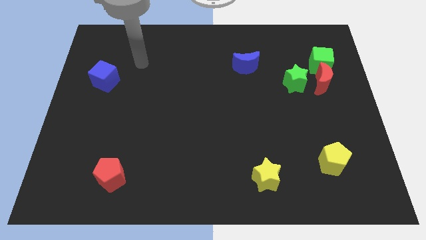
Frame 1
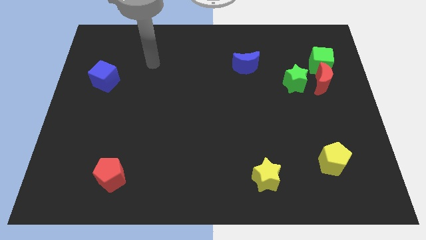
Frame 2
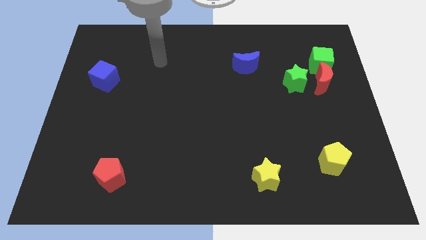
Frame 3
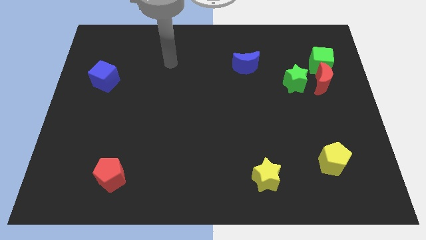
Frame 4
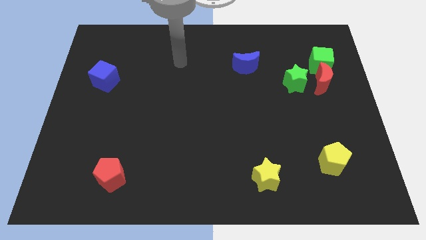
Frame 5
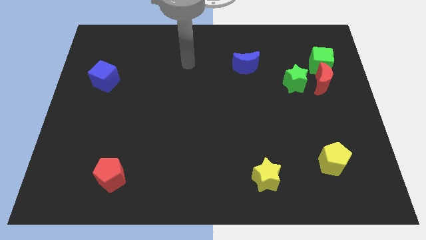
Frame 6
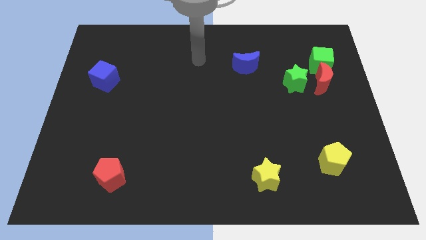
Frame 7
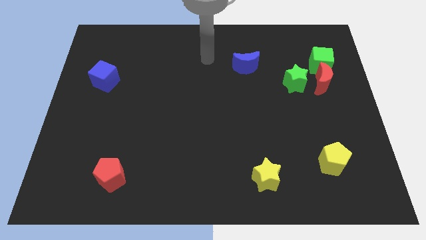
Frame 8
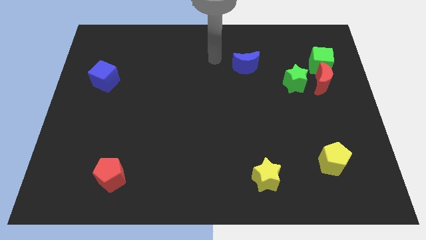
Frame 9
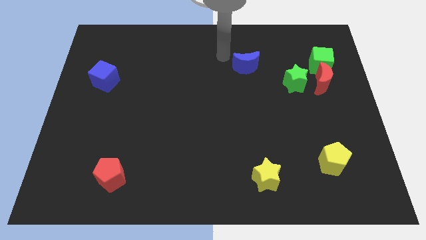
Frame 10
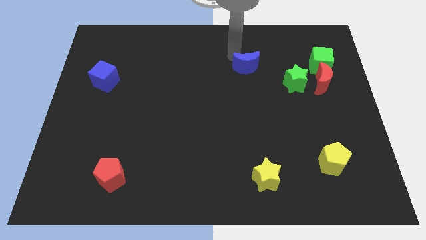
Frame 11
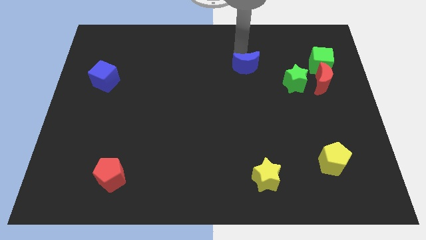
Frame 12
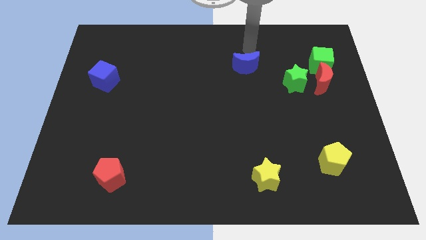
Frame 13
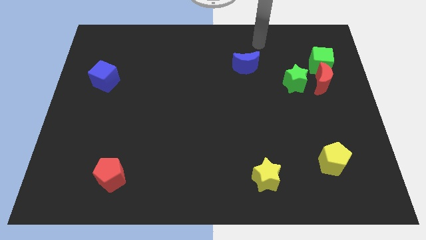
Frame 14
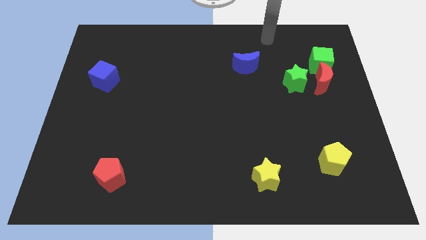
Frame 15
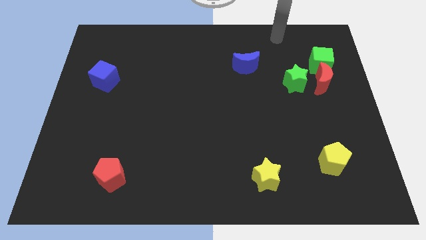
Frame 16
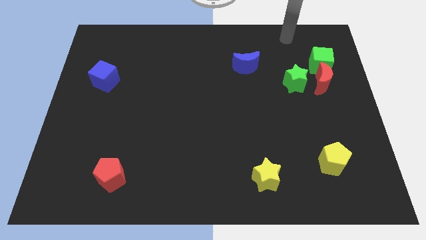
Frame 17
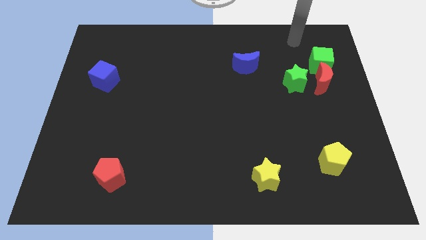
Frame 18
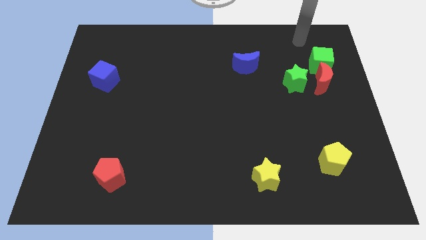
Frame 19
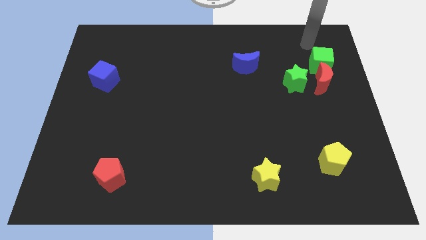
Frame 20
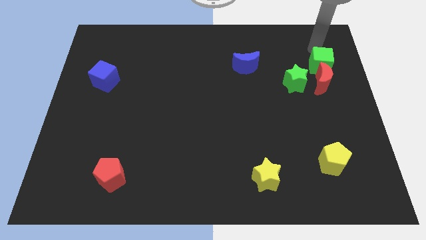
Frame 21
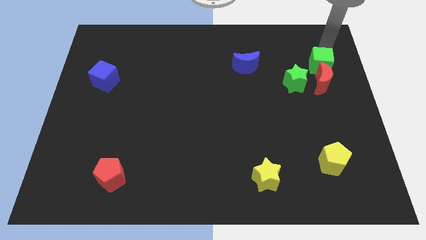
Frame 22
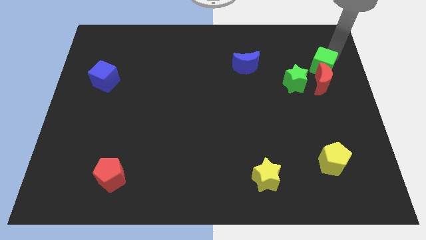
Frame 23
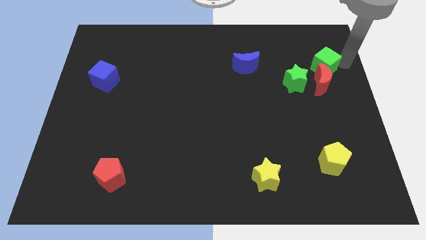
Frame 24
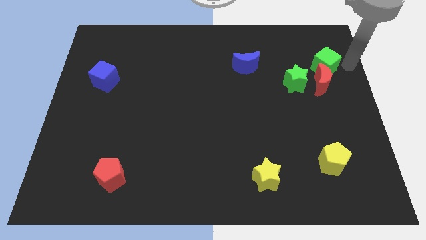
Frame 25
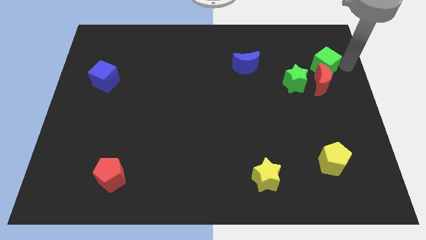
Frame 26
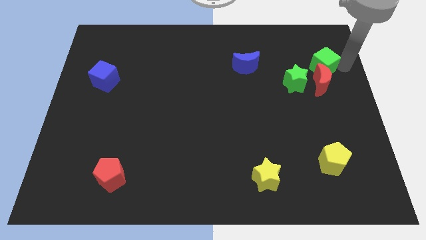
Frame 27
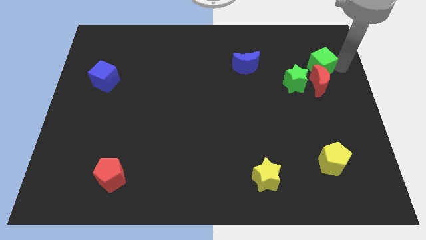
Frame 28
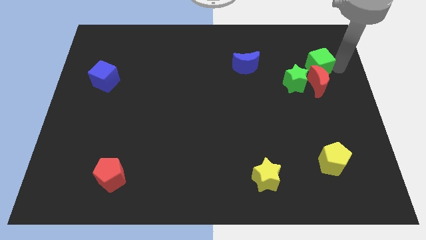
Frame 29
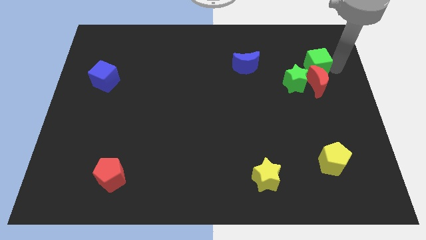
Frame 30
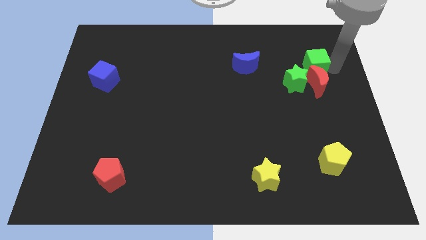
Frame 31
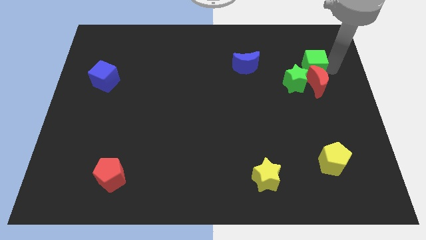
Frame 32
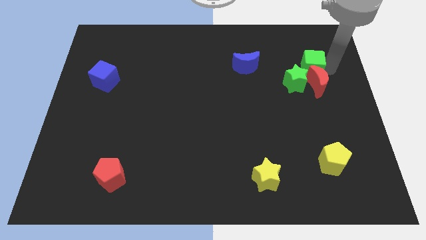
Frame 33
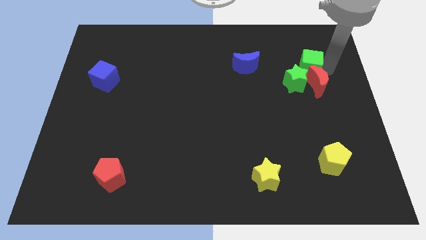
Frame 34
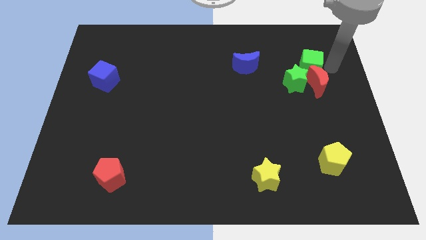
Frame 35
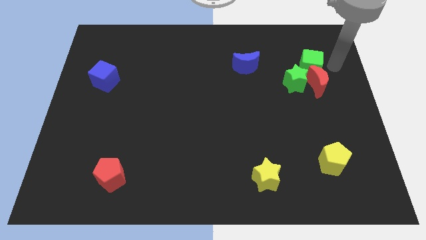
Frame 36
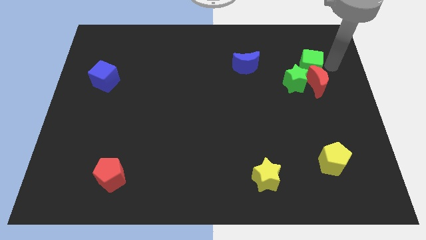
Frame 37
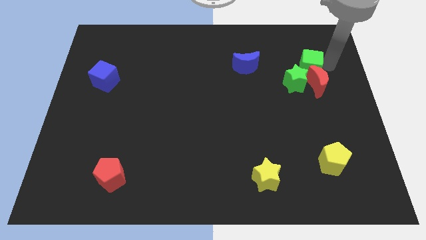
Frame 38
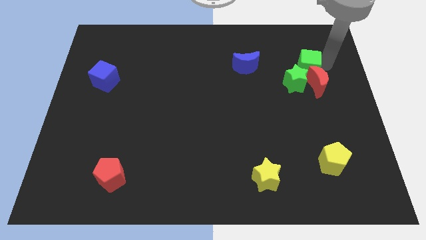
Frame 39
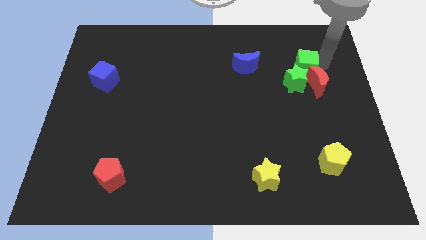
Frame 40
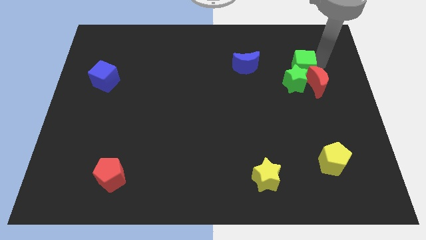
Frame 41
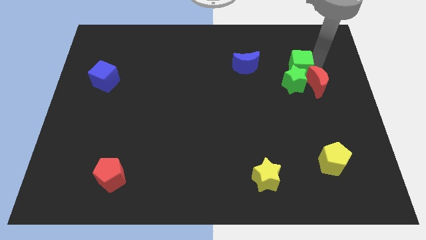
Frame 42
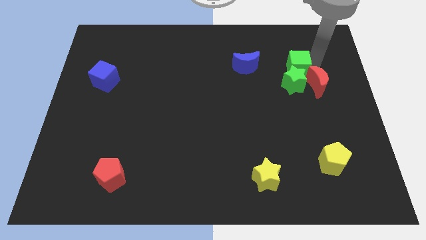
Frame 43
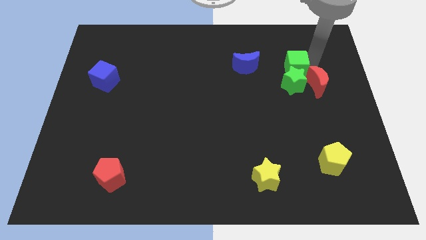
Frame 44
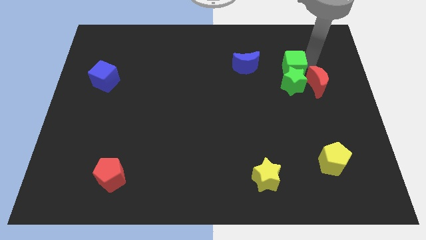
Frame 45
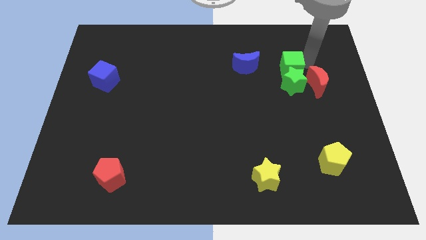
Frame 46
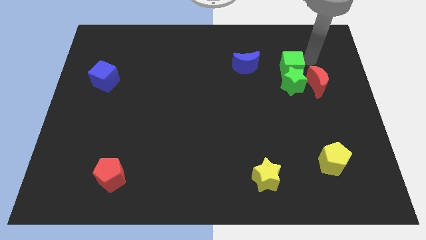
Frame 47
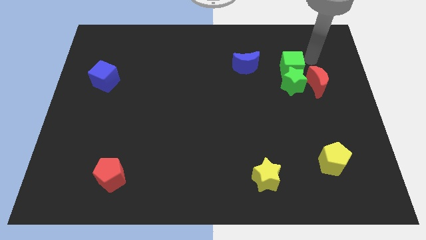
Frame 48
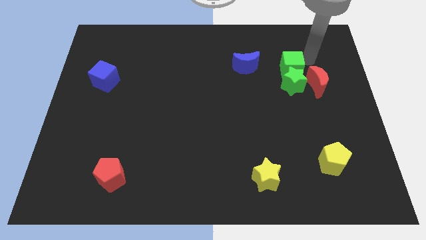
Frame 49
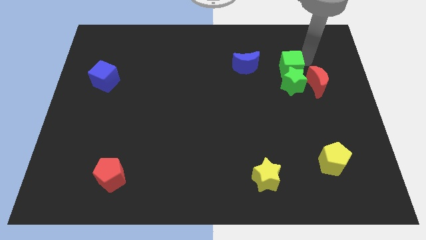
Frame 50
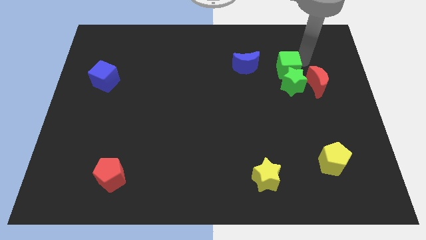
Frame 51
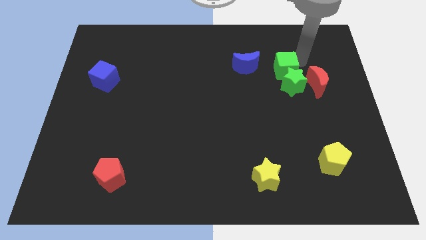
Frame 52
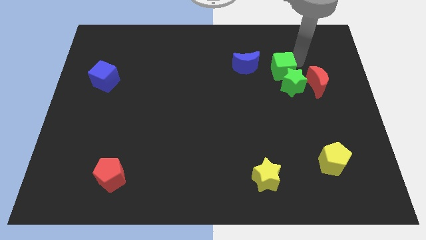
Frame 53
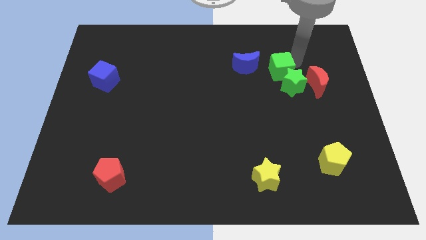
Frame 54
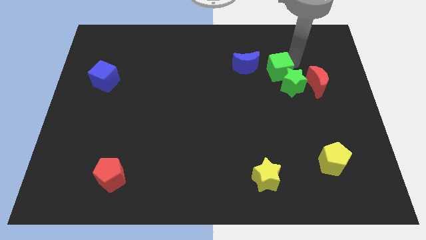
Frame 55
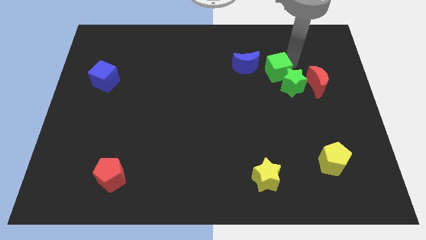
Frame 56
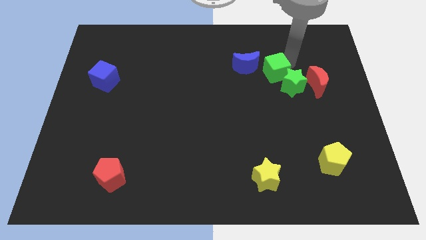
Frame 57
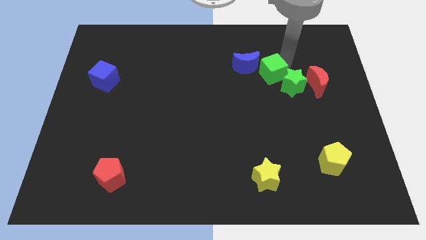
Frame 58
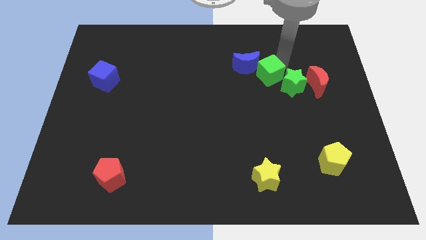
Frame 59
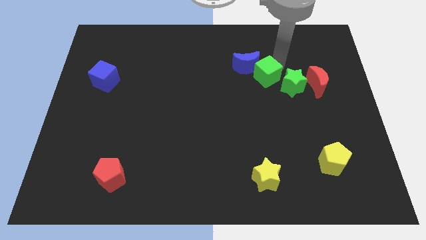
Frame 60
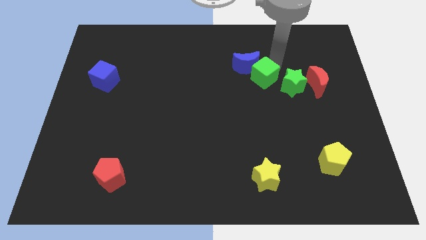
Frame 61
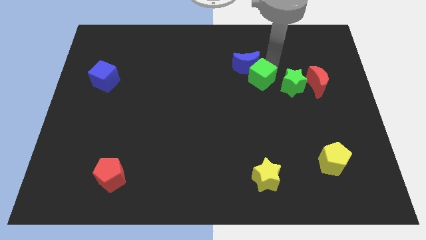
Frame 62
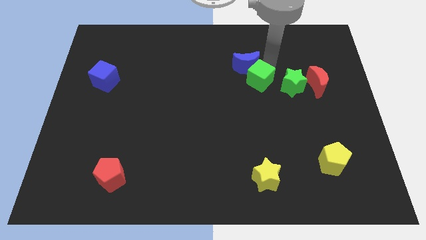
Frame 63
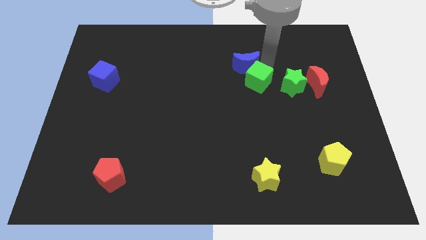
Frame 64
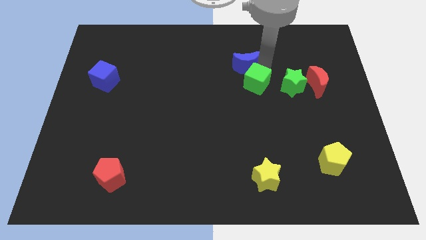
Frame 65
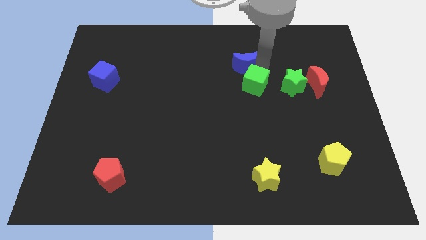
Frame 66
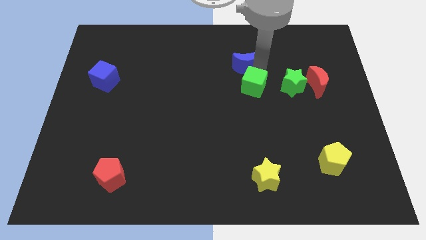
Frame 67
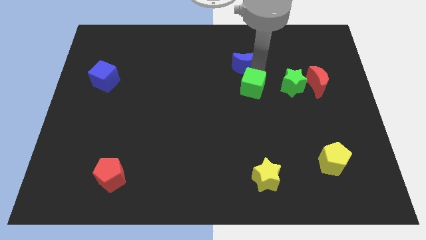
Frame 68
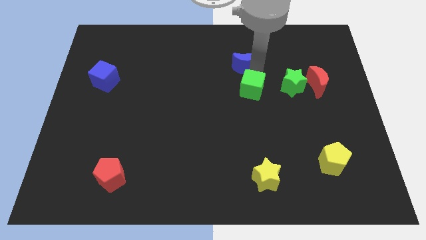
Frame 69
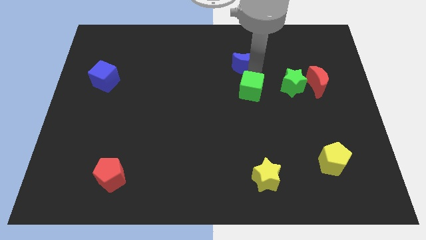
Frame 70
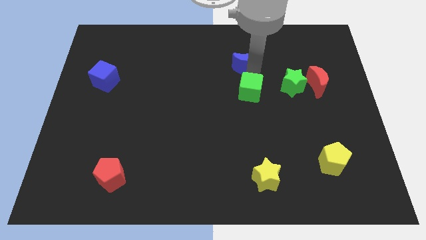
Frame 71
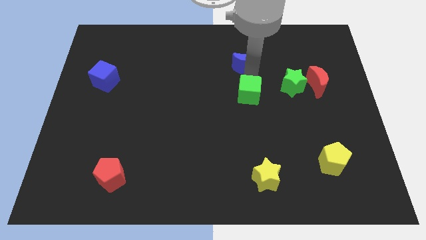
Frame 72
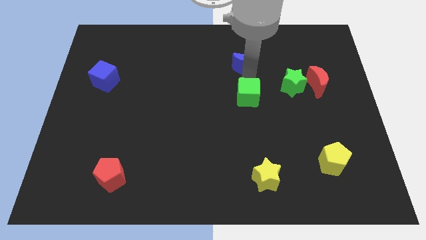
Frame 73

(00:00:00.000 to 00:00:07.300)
move the green cube downwards and left

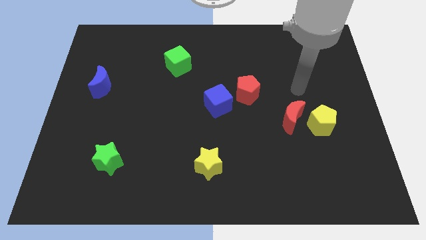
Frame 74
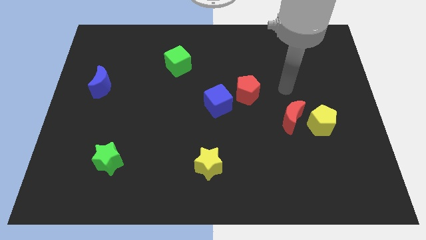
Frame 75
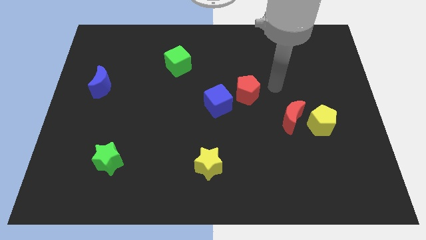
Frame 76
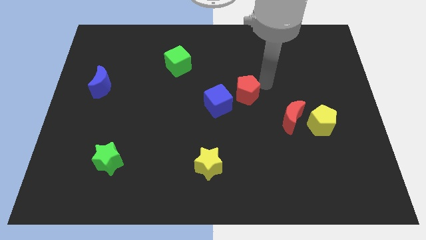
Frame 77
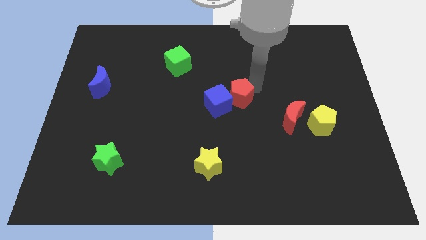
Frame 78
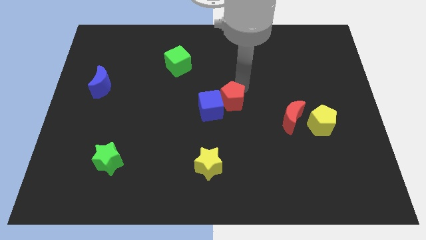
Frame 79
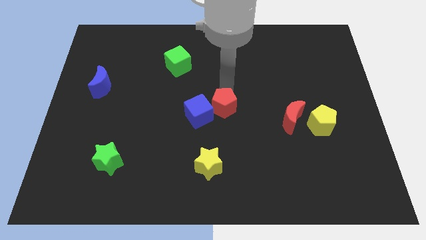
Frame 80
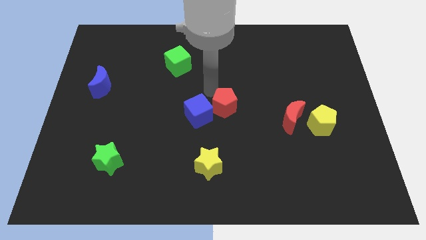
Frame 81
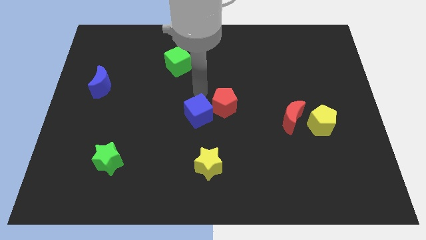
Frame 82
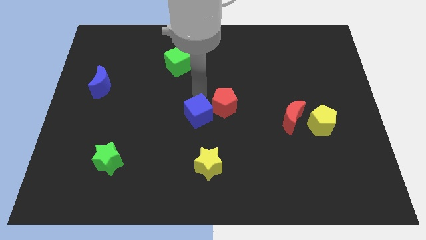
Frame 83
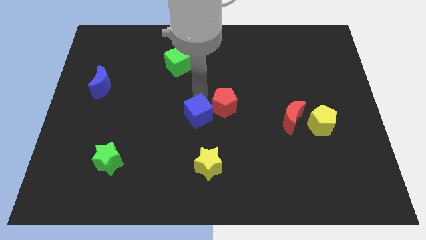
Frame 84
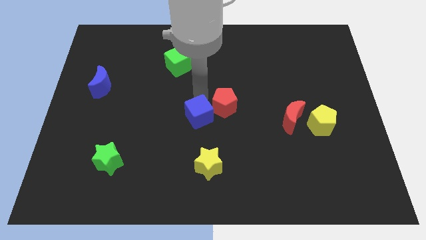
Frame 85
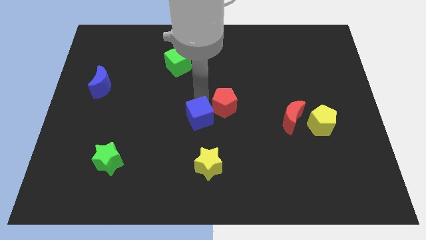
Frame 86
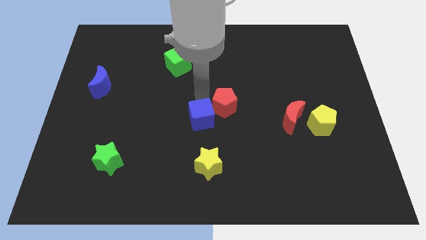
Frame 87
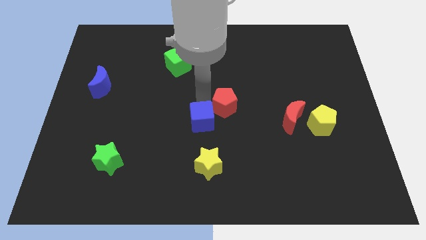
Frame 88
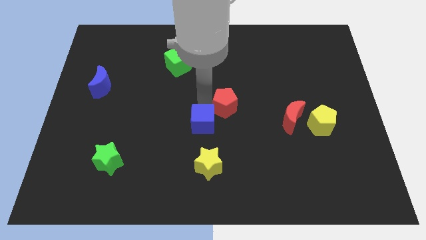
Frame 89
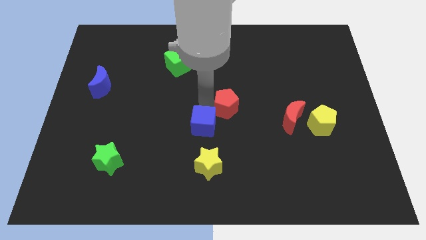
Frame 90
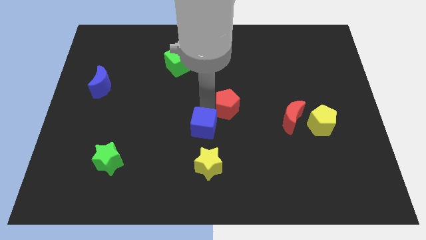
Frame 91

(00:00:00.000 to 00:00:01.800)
slightly slide the blue cube down and left
